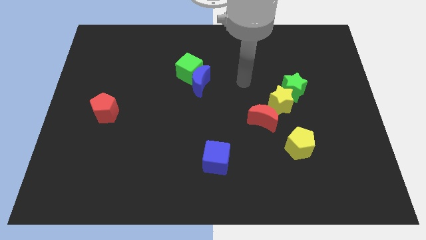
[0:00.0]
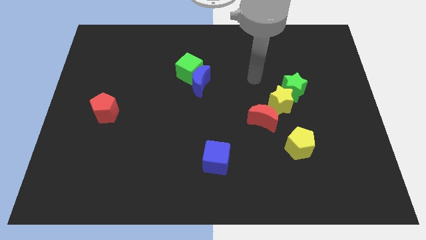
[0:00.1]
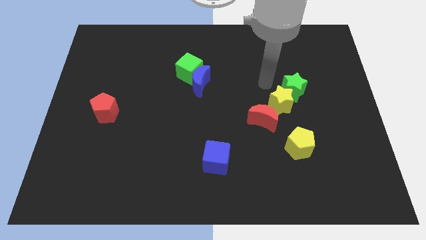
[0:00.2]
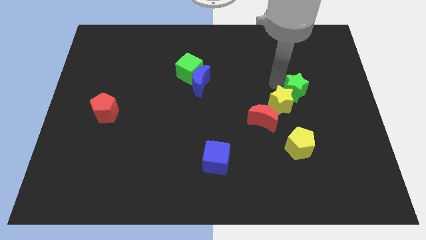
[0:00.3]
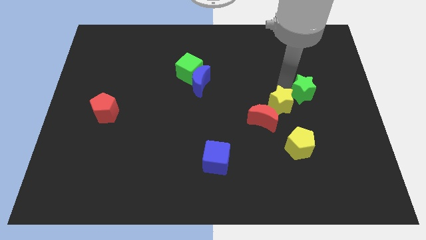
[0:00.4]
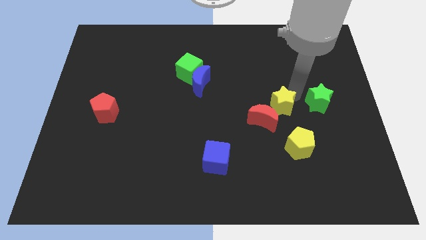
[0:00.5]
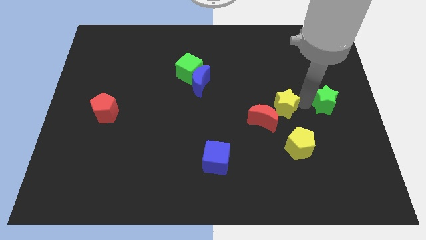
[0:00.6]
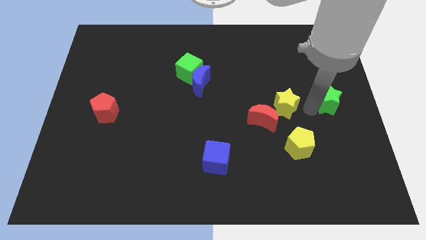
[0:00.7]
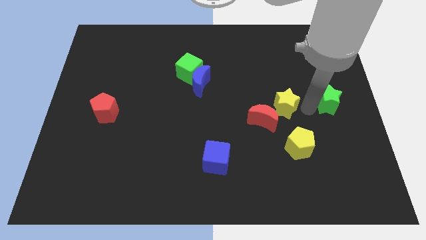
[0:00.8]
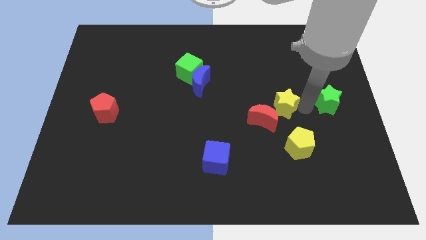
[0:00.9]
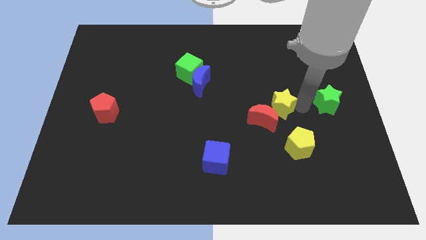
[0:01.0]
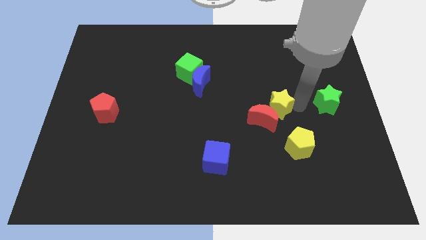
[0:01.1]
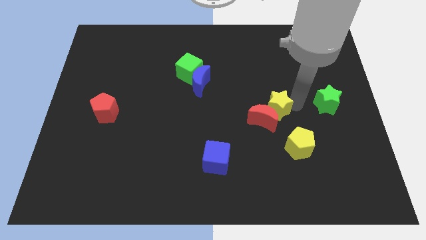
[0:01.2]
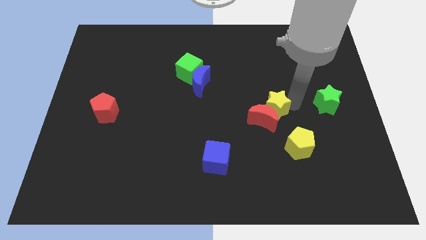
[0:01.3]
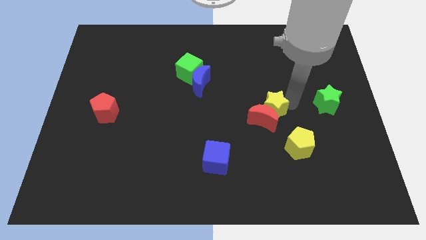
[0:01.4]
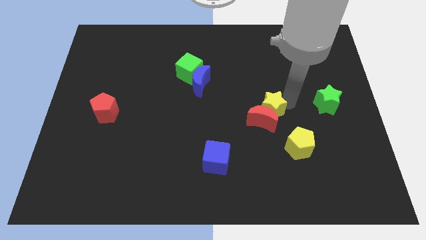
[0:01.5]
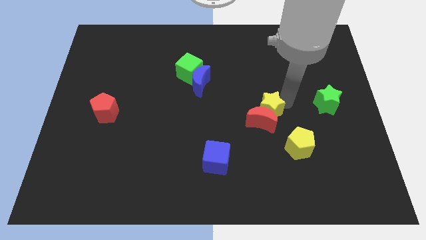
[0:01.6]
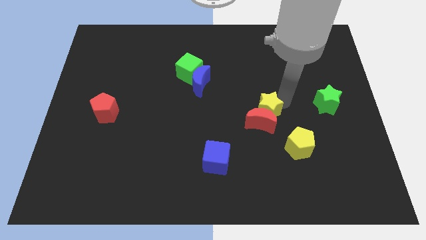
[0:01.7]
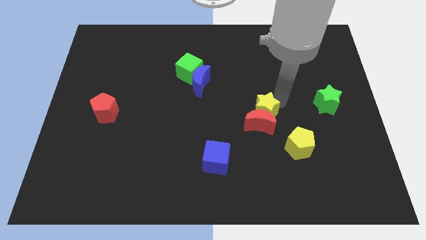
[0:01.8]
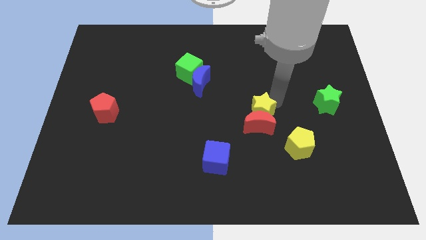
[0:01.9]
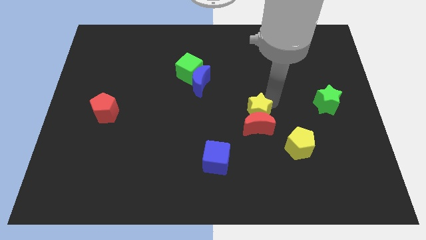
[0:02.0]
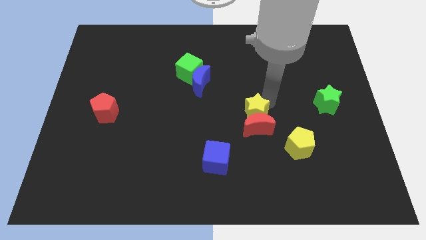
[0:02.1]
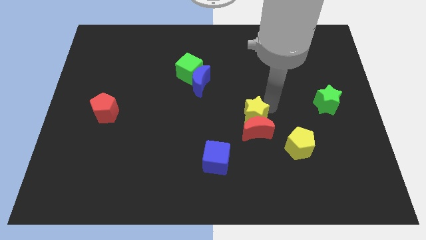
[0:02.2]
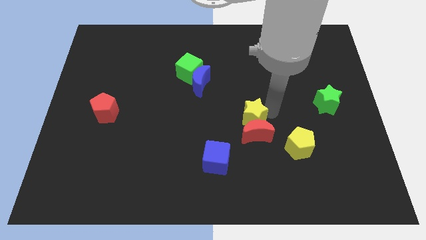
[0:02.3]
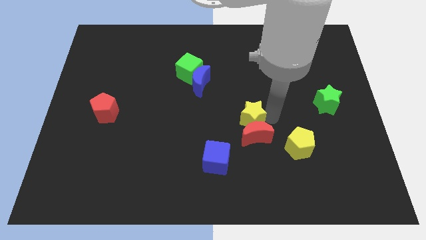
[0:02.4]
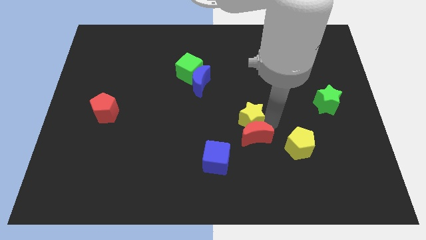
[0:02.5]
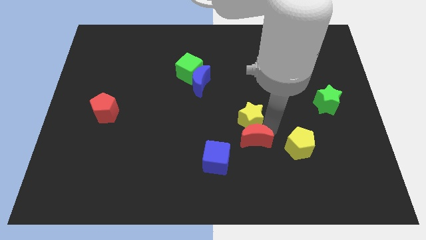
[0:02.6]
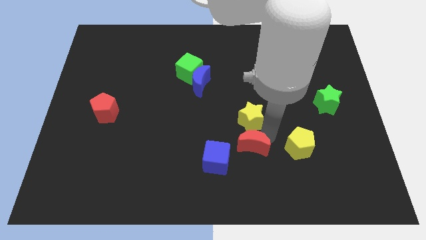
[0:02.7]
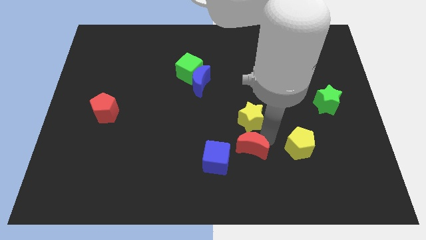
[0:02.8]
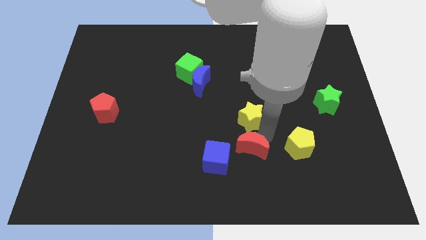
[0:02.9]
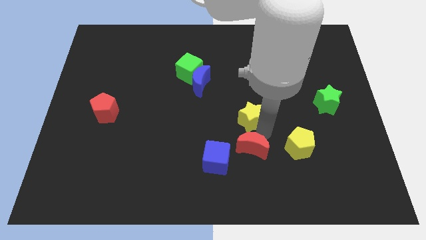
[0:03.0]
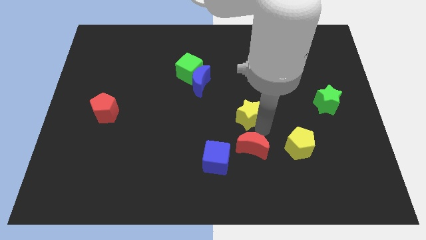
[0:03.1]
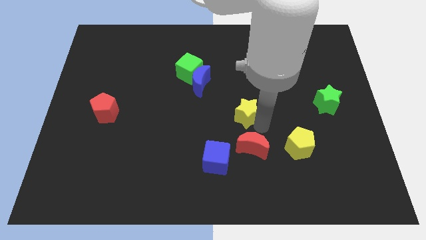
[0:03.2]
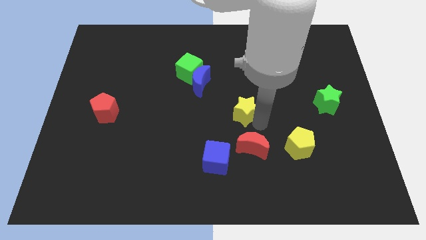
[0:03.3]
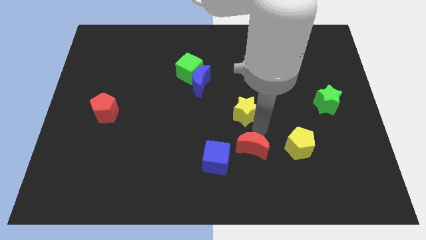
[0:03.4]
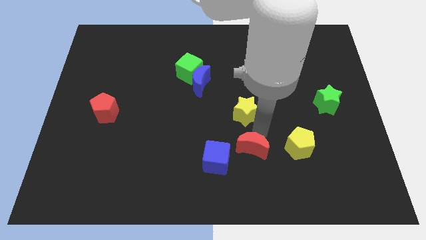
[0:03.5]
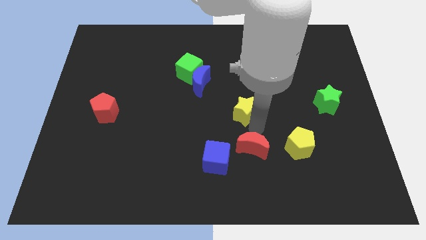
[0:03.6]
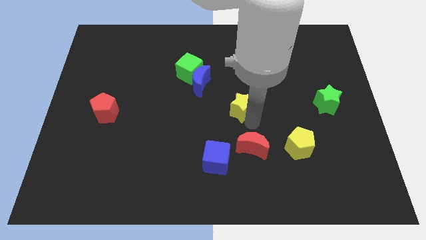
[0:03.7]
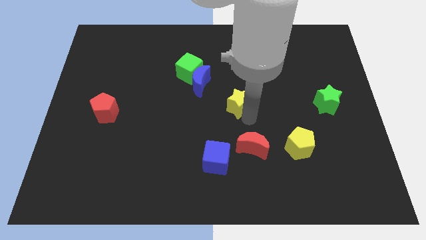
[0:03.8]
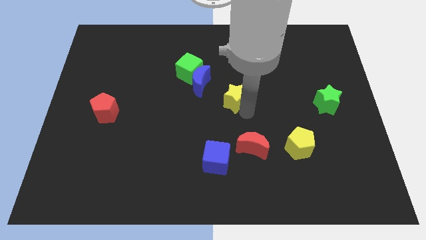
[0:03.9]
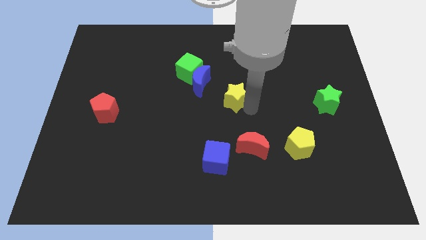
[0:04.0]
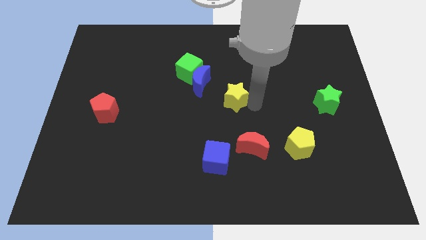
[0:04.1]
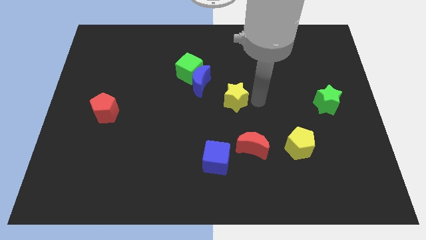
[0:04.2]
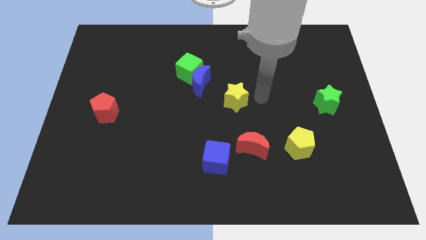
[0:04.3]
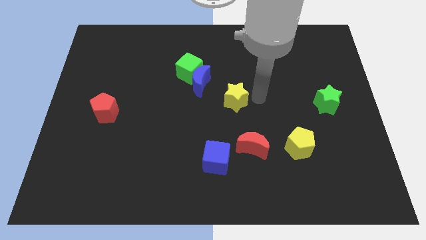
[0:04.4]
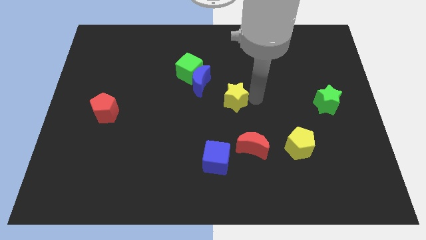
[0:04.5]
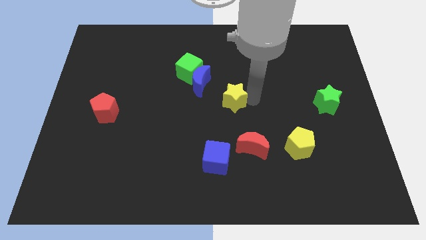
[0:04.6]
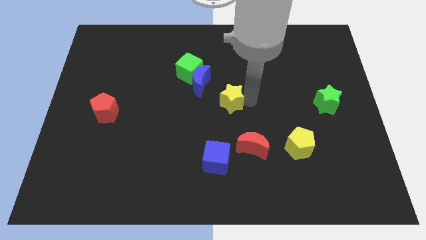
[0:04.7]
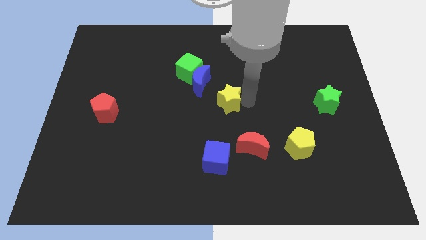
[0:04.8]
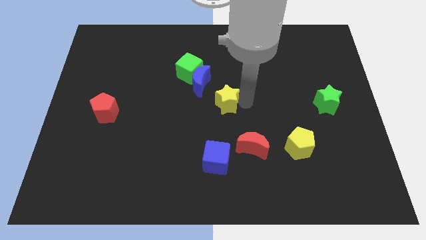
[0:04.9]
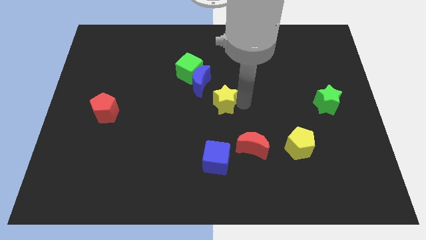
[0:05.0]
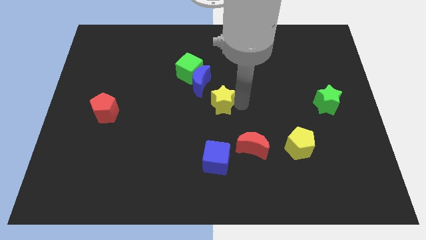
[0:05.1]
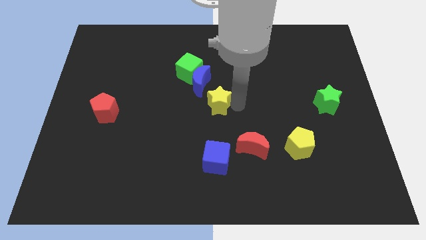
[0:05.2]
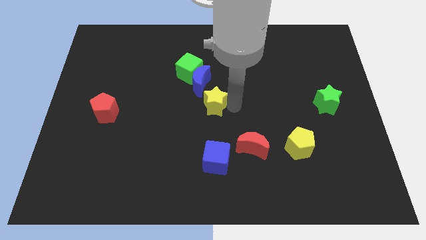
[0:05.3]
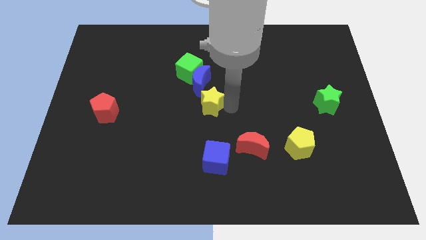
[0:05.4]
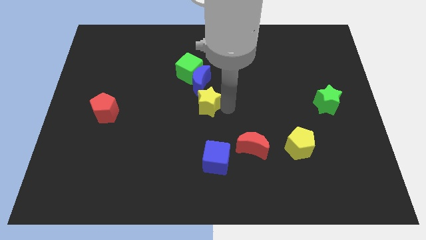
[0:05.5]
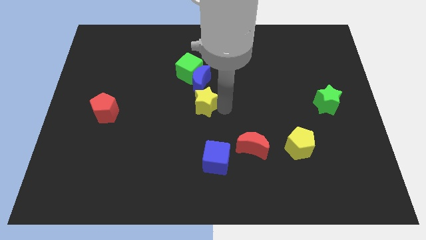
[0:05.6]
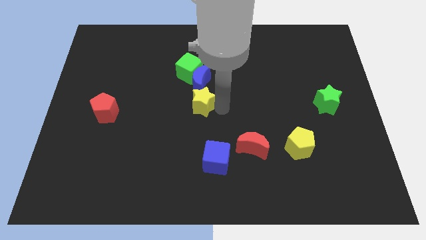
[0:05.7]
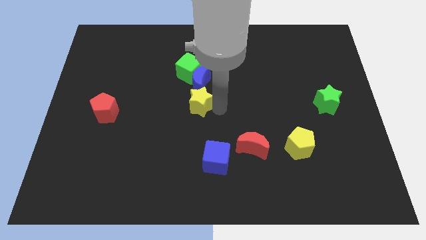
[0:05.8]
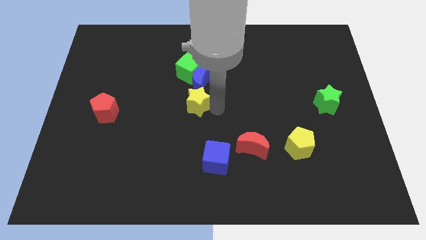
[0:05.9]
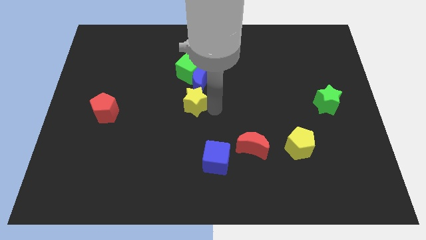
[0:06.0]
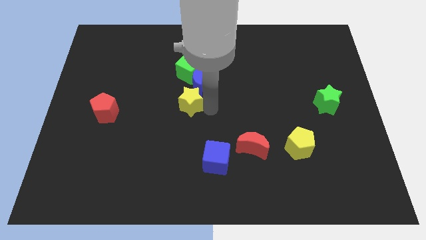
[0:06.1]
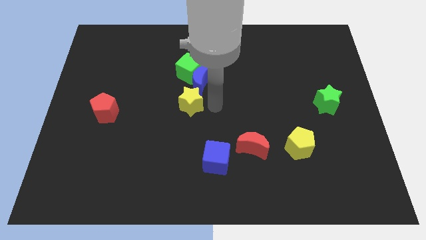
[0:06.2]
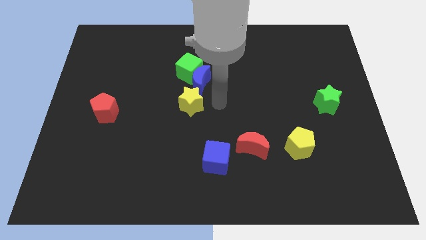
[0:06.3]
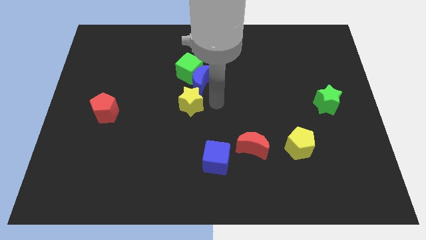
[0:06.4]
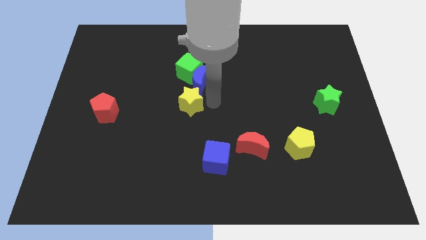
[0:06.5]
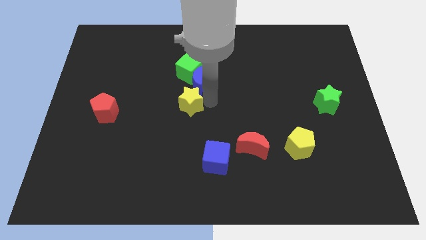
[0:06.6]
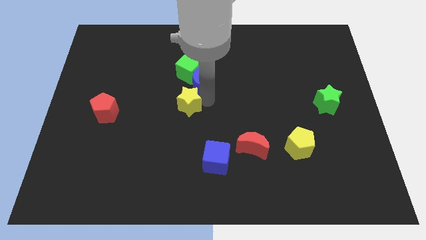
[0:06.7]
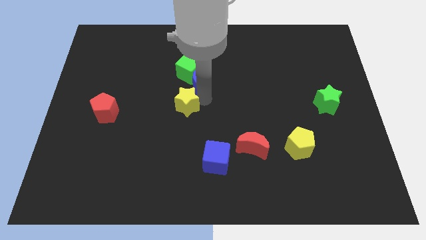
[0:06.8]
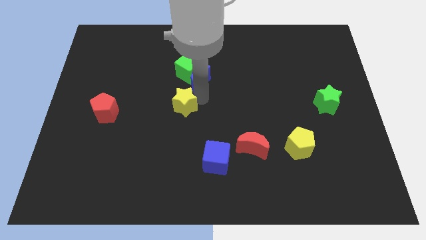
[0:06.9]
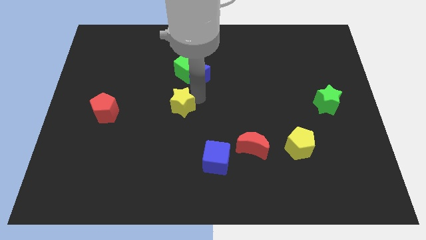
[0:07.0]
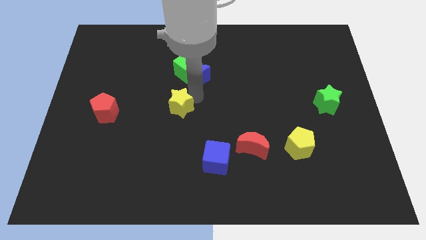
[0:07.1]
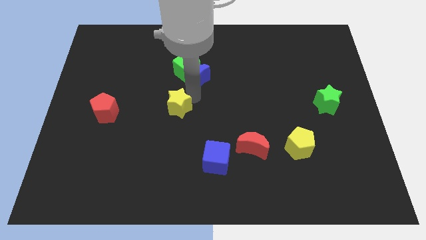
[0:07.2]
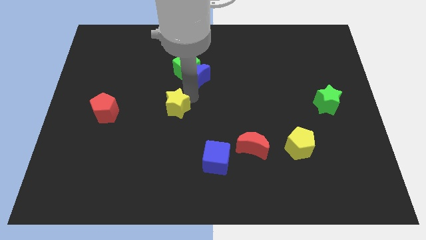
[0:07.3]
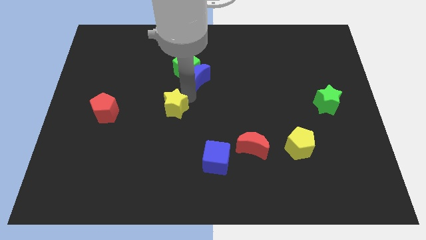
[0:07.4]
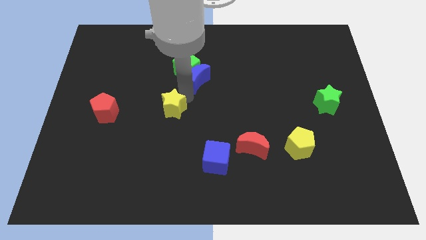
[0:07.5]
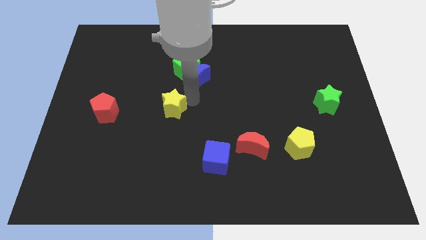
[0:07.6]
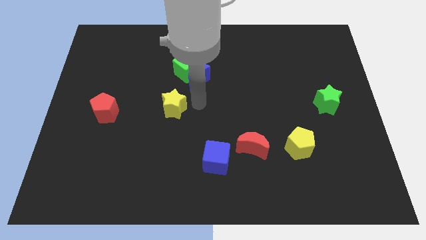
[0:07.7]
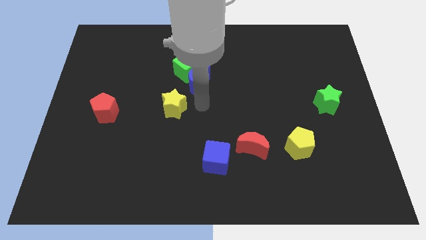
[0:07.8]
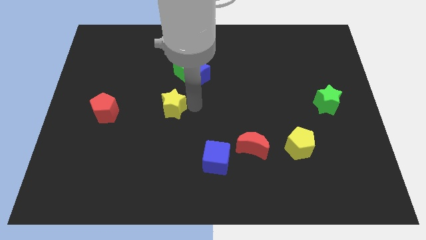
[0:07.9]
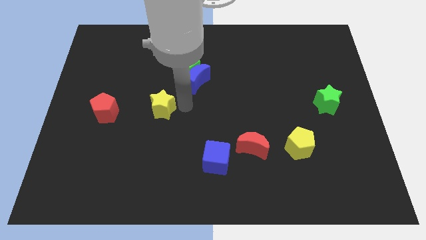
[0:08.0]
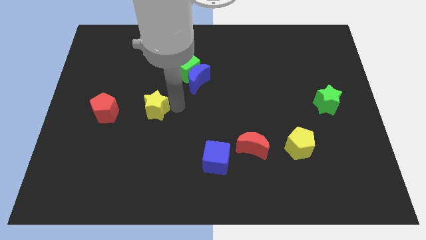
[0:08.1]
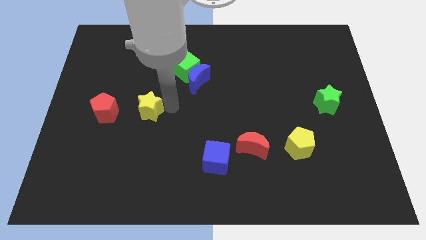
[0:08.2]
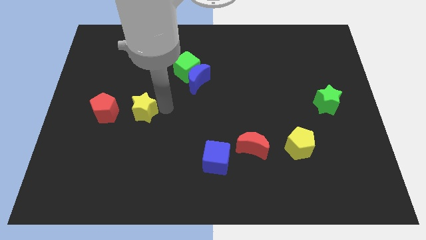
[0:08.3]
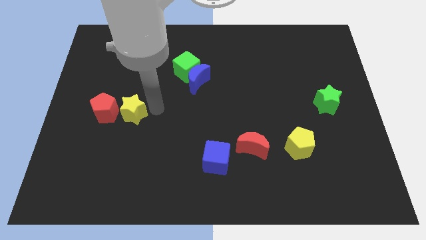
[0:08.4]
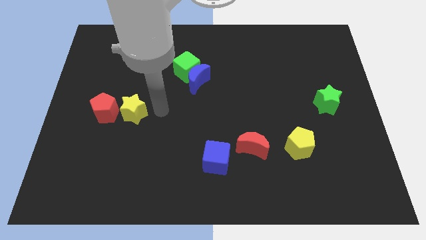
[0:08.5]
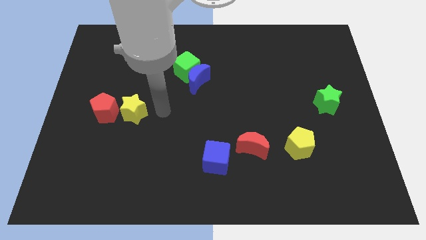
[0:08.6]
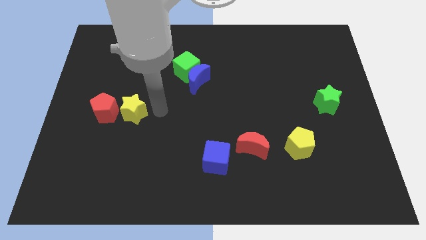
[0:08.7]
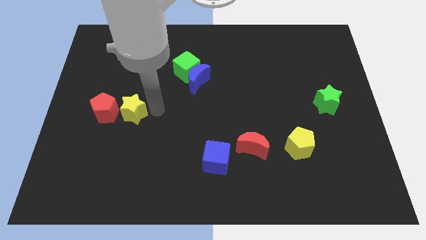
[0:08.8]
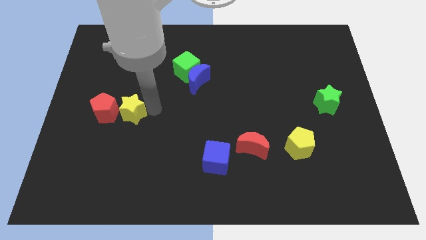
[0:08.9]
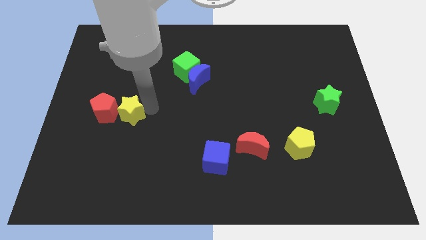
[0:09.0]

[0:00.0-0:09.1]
push the yellow star next to the red pentagon
